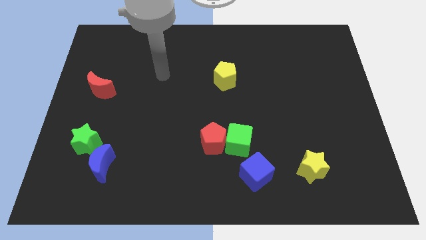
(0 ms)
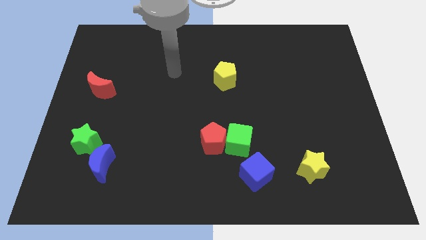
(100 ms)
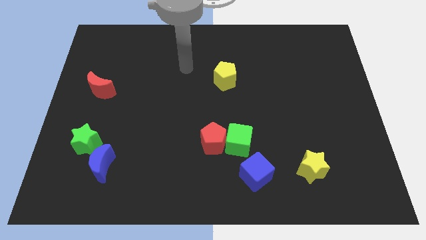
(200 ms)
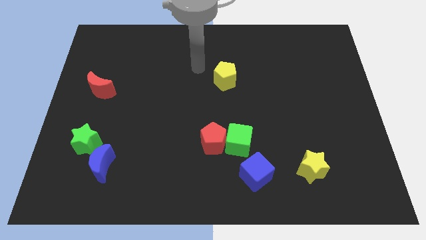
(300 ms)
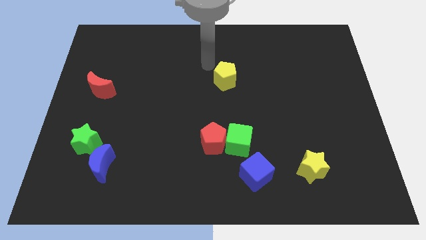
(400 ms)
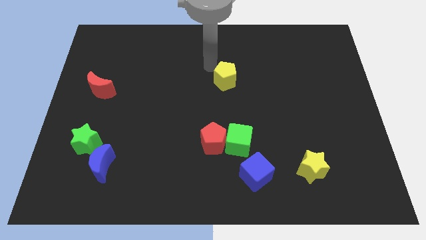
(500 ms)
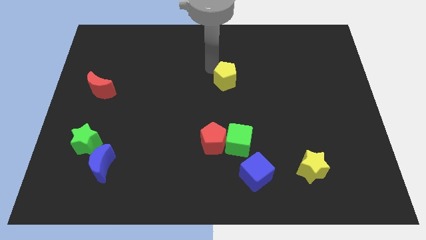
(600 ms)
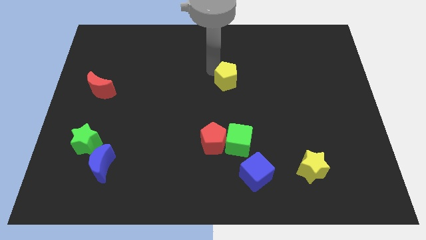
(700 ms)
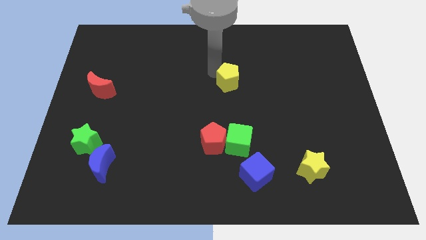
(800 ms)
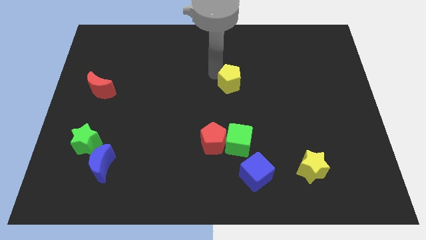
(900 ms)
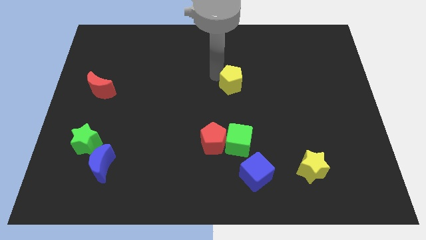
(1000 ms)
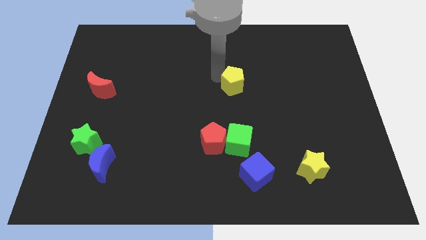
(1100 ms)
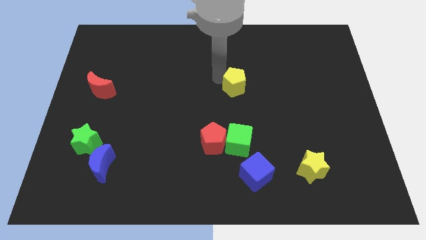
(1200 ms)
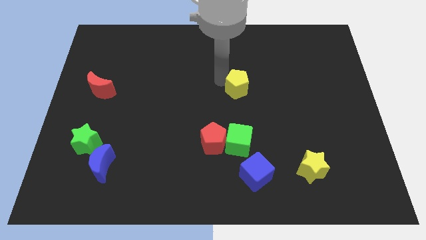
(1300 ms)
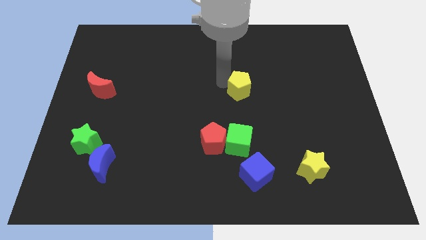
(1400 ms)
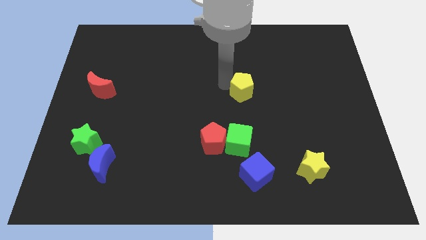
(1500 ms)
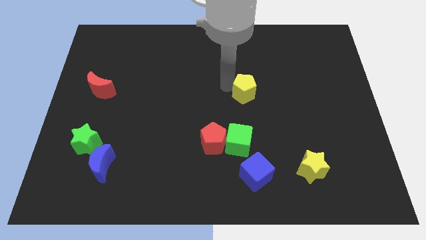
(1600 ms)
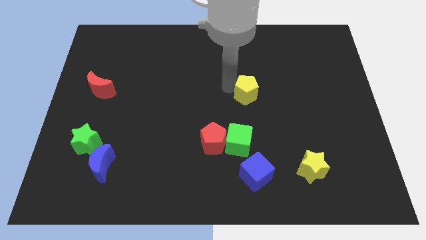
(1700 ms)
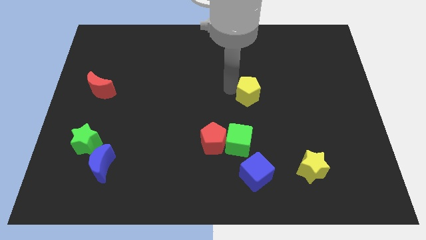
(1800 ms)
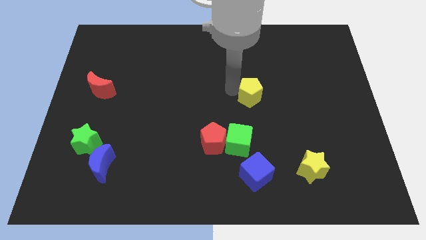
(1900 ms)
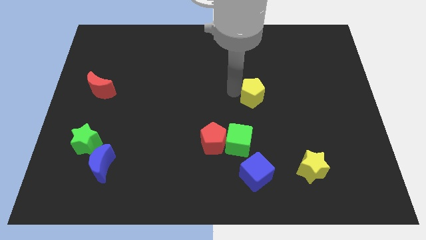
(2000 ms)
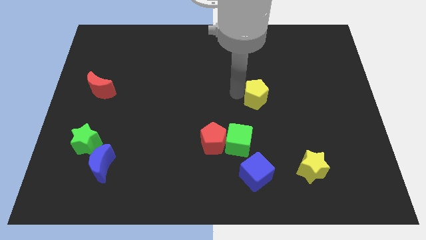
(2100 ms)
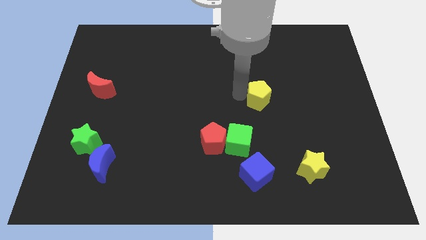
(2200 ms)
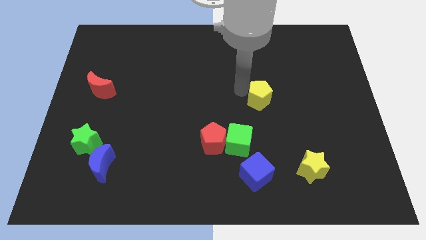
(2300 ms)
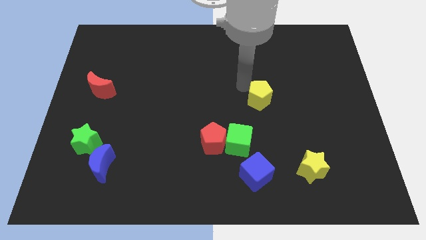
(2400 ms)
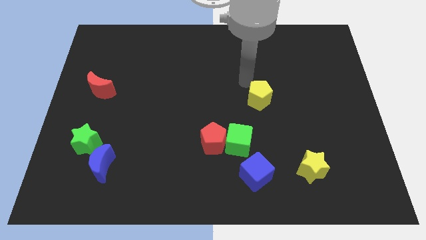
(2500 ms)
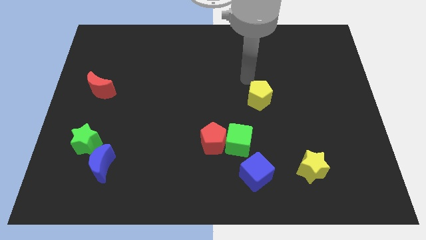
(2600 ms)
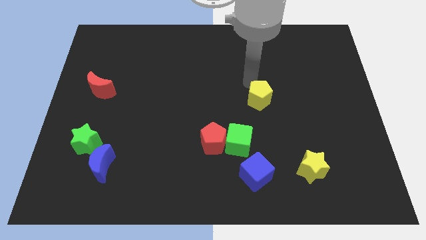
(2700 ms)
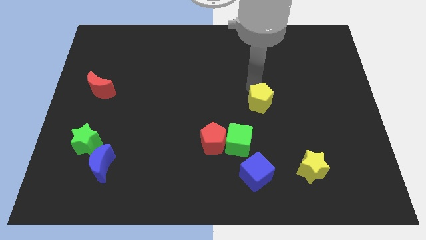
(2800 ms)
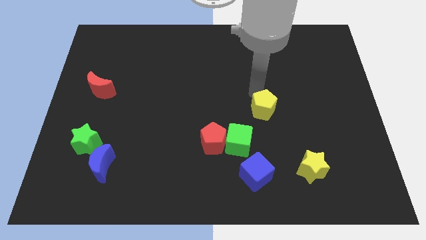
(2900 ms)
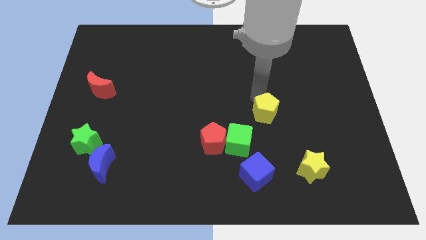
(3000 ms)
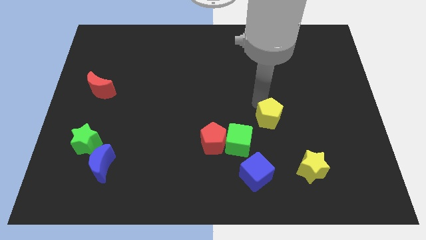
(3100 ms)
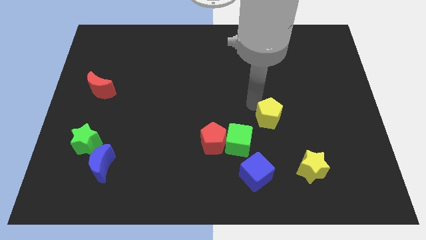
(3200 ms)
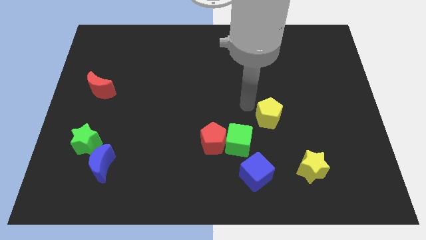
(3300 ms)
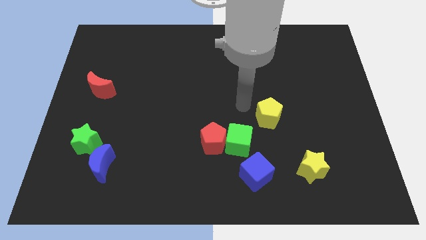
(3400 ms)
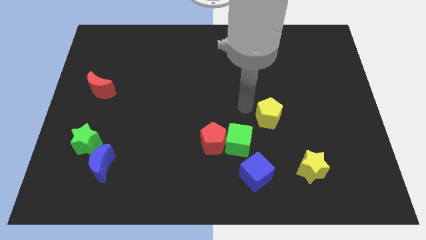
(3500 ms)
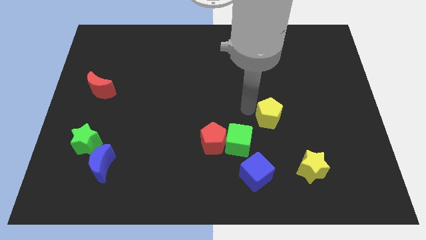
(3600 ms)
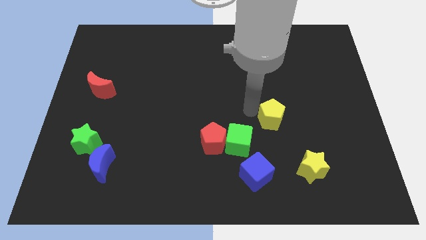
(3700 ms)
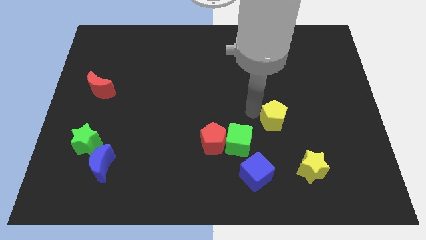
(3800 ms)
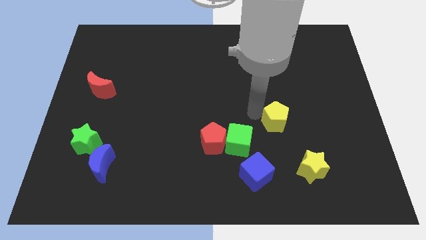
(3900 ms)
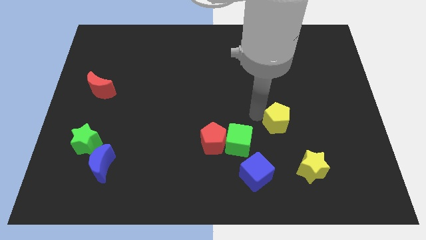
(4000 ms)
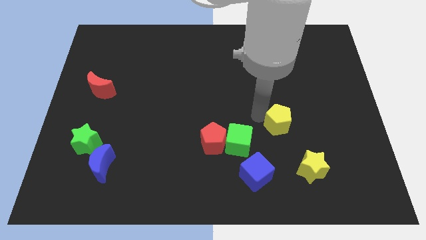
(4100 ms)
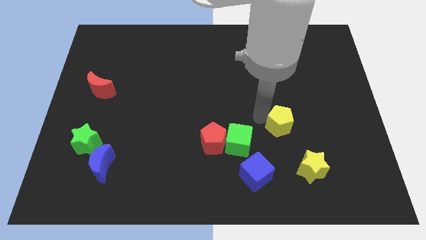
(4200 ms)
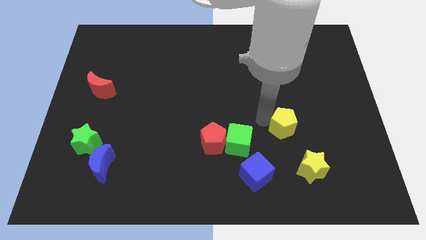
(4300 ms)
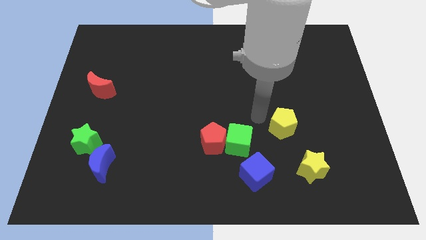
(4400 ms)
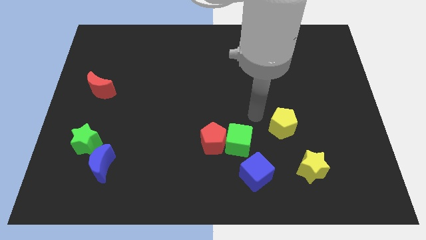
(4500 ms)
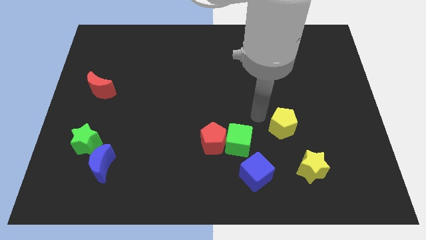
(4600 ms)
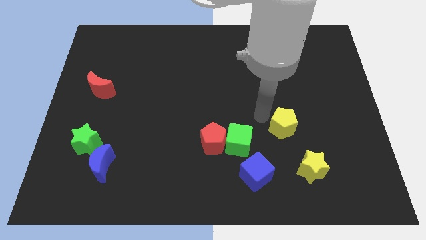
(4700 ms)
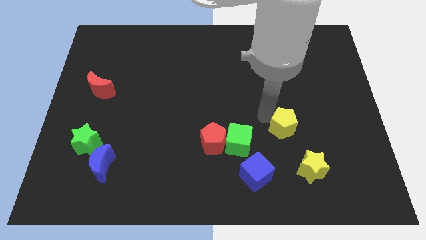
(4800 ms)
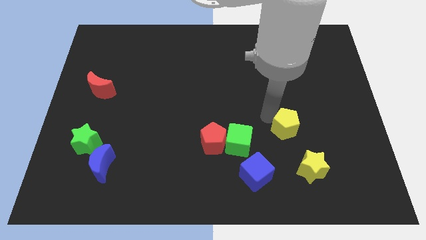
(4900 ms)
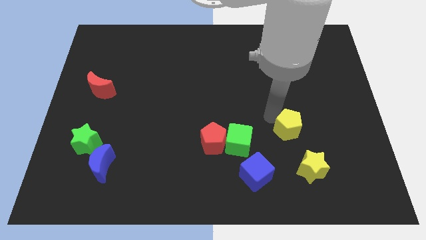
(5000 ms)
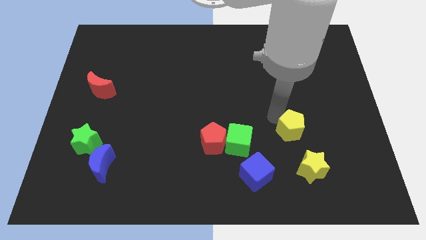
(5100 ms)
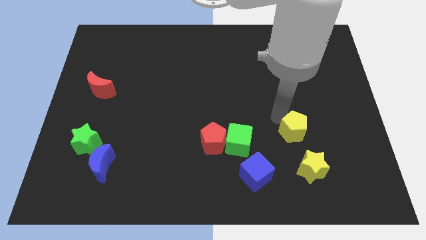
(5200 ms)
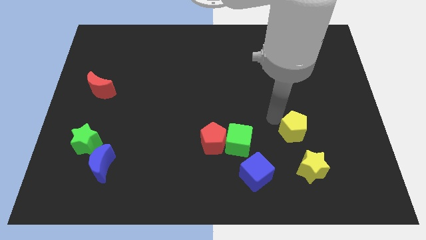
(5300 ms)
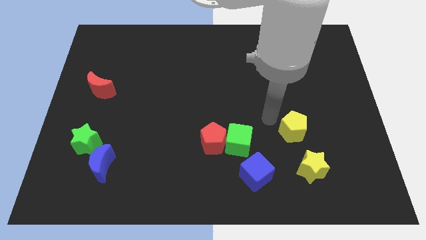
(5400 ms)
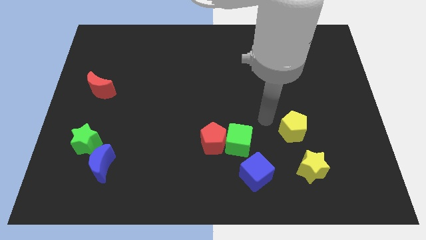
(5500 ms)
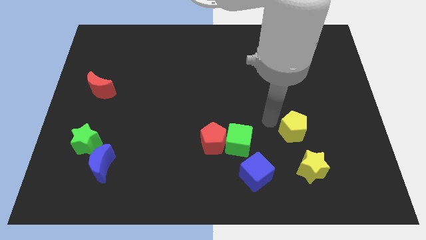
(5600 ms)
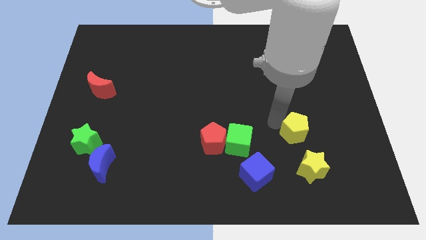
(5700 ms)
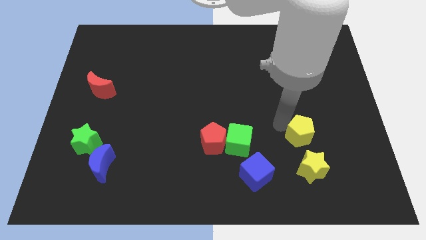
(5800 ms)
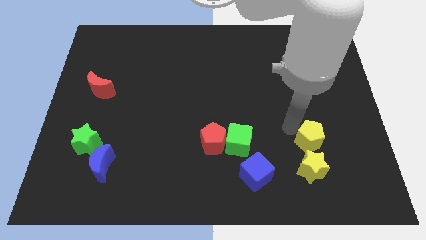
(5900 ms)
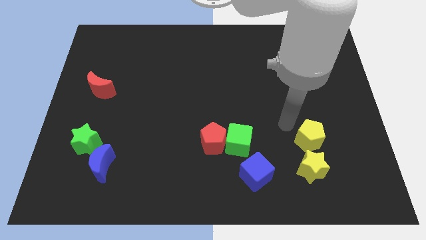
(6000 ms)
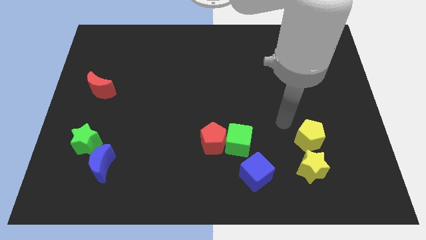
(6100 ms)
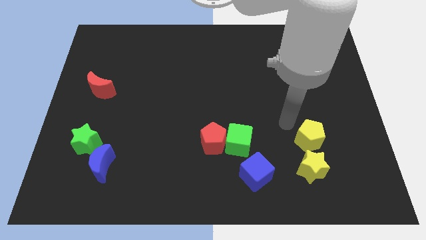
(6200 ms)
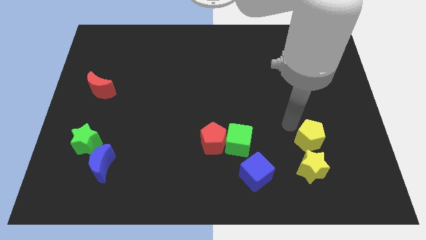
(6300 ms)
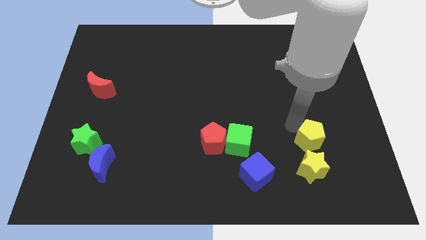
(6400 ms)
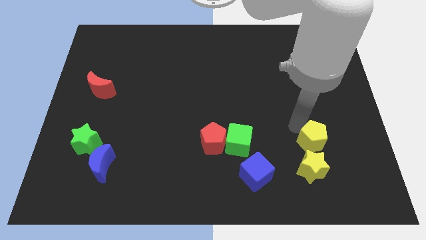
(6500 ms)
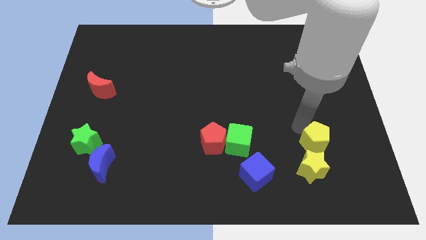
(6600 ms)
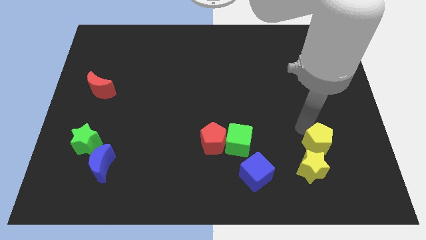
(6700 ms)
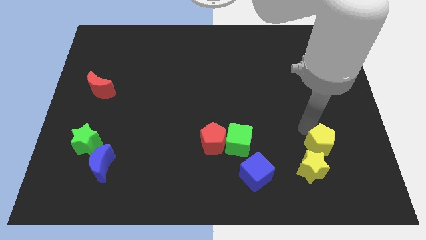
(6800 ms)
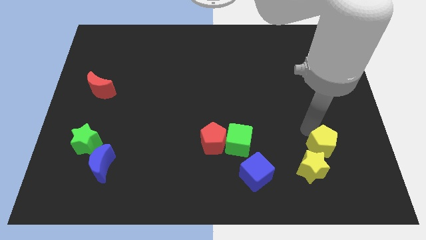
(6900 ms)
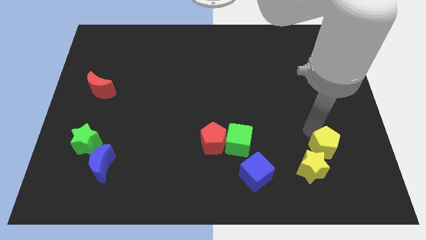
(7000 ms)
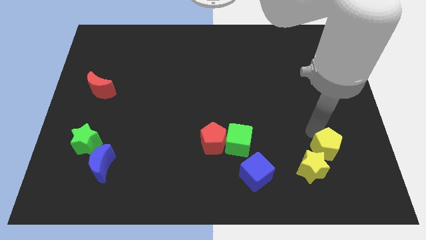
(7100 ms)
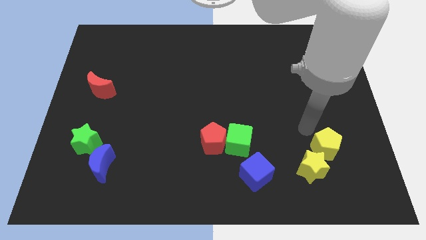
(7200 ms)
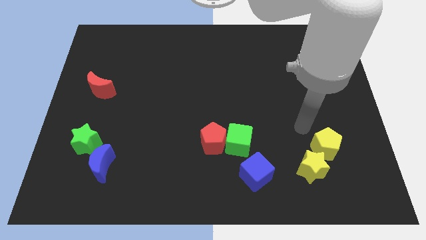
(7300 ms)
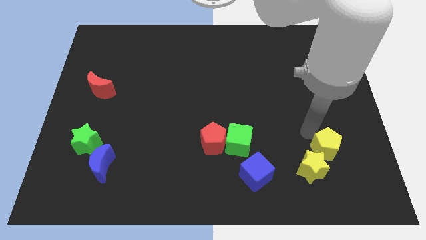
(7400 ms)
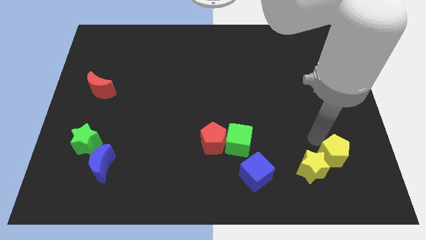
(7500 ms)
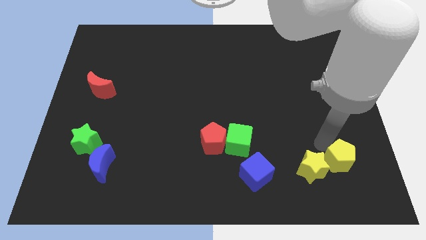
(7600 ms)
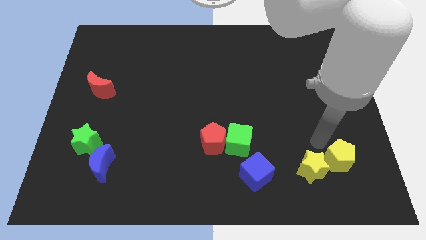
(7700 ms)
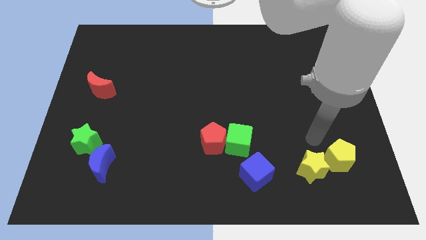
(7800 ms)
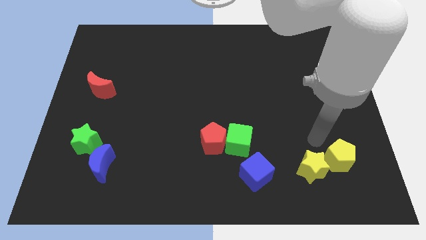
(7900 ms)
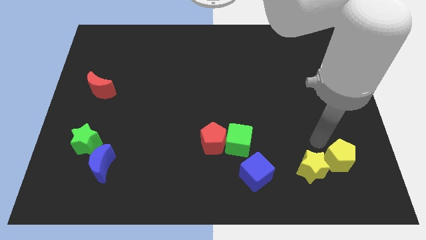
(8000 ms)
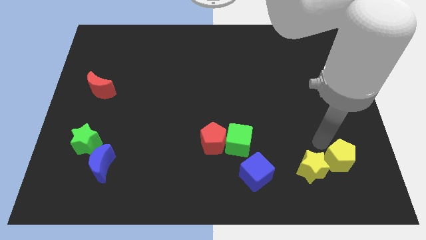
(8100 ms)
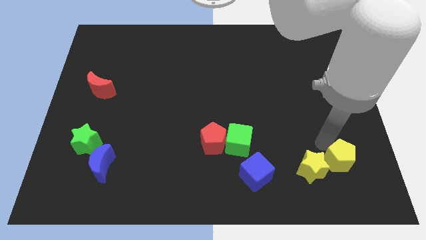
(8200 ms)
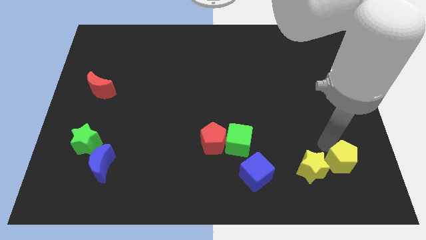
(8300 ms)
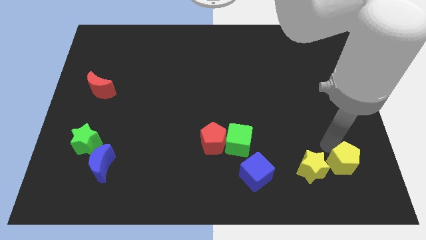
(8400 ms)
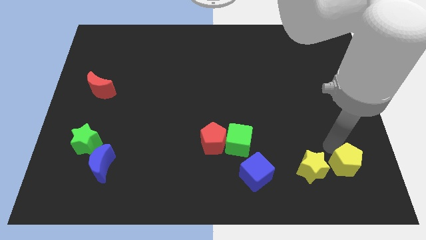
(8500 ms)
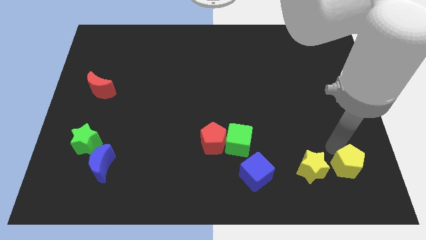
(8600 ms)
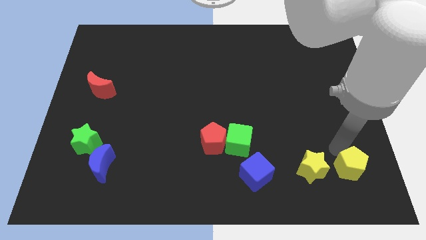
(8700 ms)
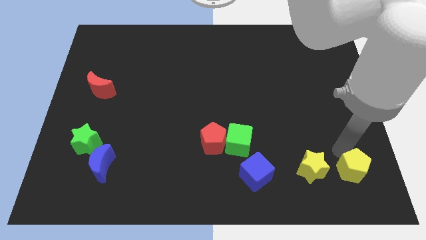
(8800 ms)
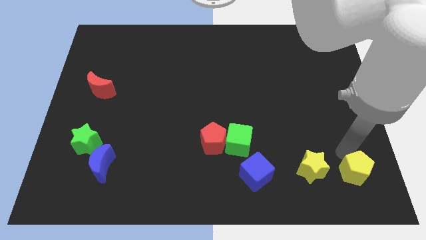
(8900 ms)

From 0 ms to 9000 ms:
put the yellow pentagon to the bottom right of the board
